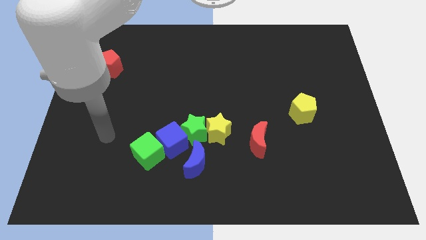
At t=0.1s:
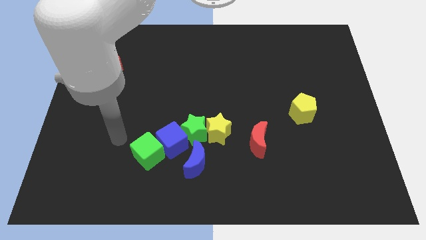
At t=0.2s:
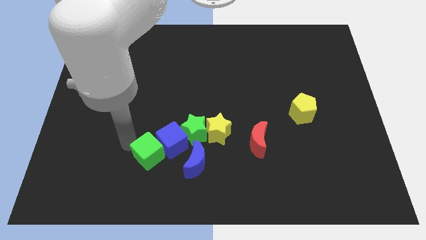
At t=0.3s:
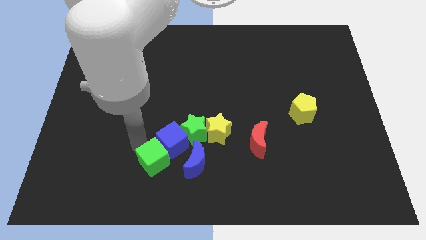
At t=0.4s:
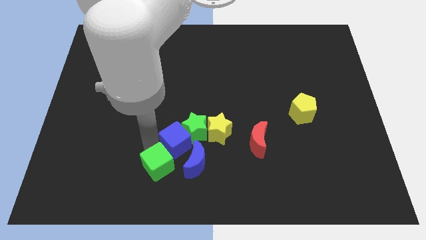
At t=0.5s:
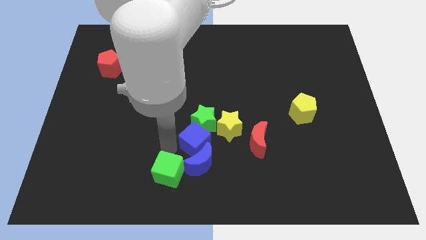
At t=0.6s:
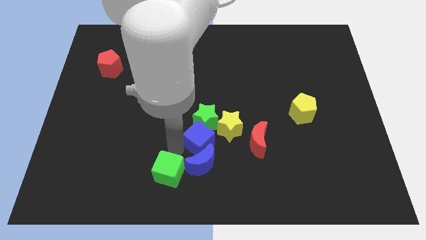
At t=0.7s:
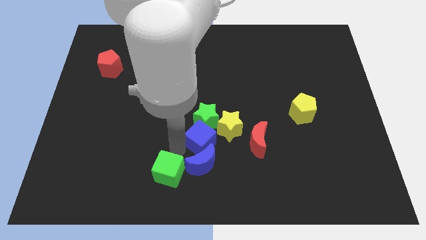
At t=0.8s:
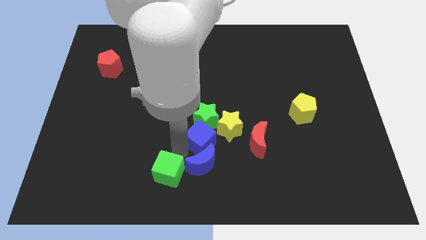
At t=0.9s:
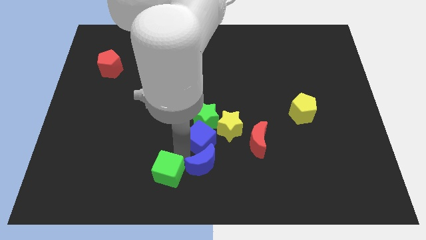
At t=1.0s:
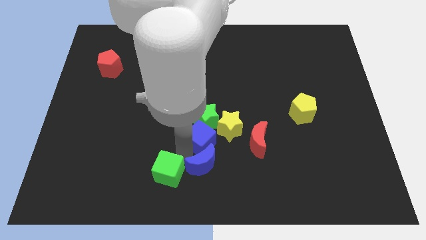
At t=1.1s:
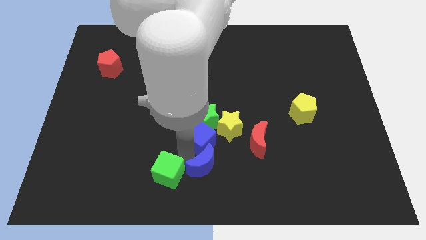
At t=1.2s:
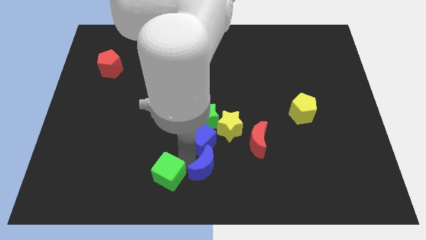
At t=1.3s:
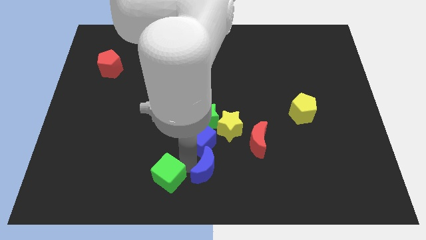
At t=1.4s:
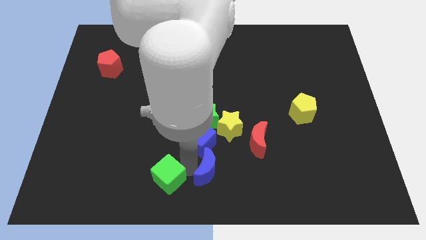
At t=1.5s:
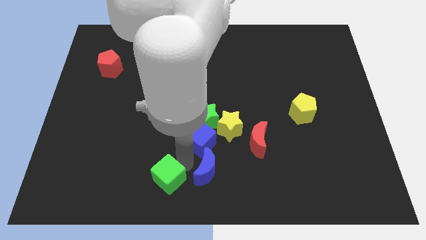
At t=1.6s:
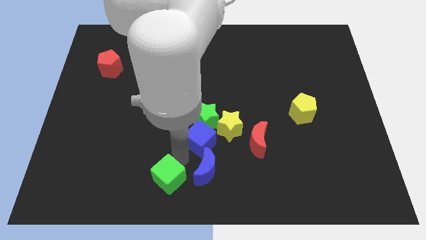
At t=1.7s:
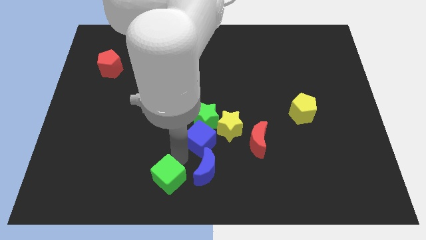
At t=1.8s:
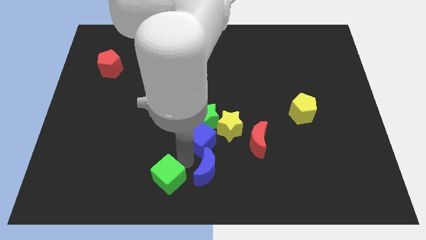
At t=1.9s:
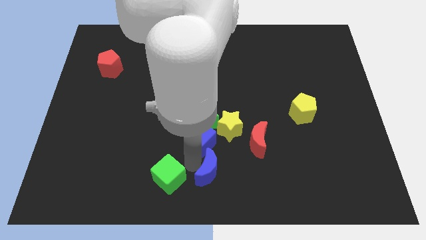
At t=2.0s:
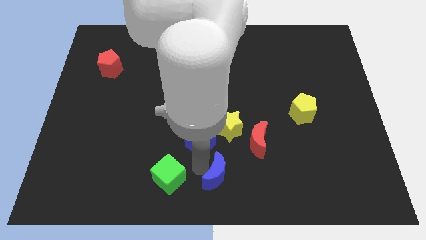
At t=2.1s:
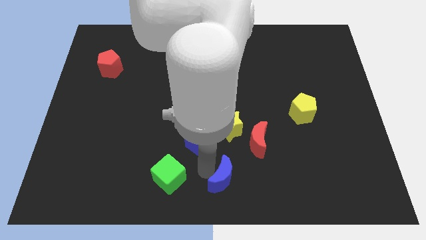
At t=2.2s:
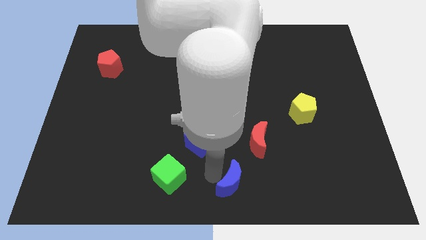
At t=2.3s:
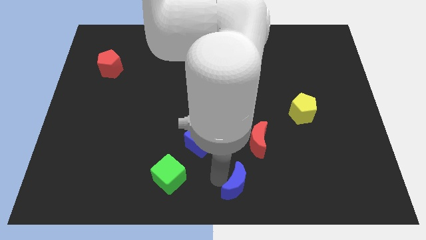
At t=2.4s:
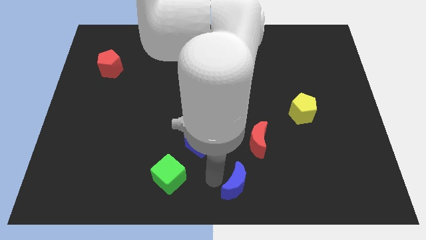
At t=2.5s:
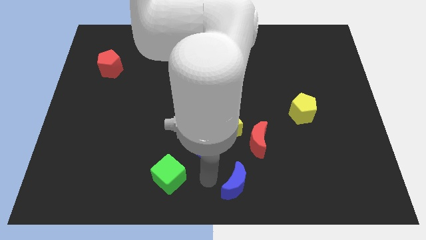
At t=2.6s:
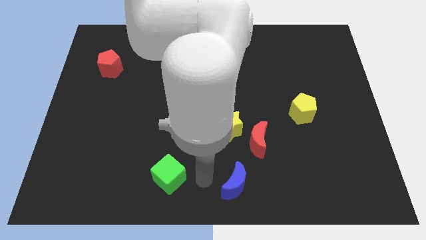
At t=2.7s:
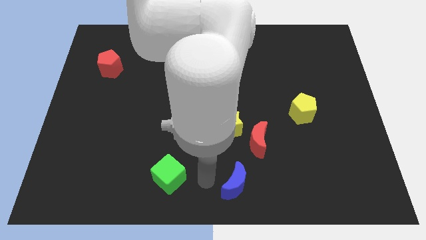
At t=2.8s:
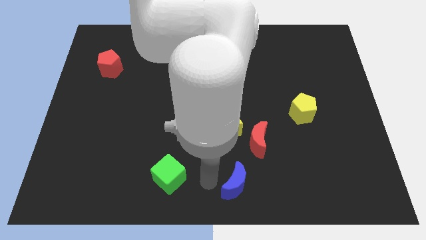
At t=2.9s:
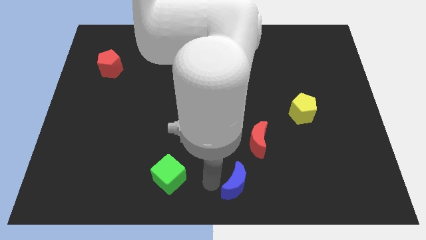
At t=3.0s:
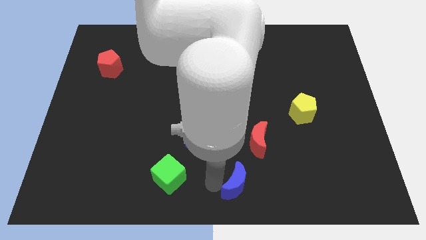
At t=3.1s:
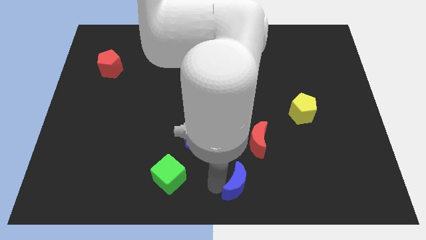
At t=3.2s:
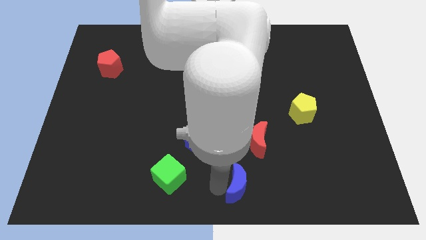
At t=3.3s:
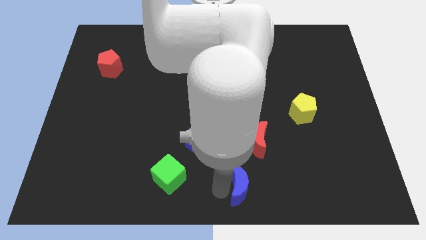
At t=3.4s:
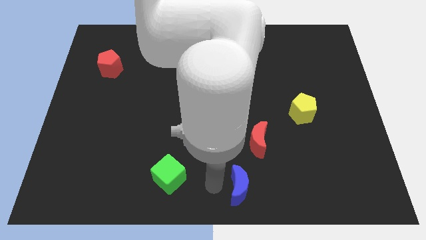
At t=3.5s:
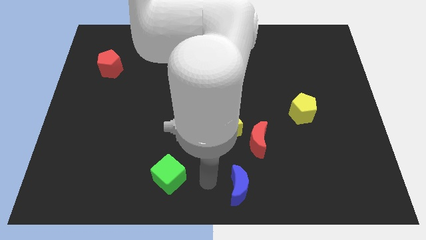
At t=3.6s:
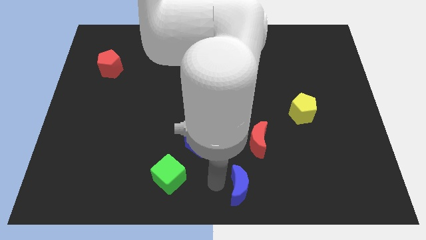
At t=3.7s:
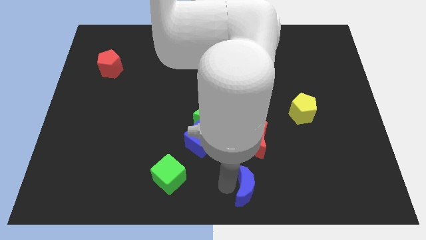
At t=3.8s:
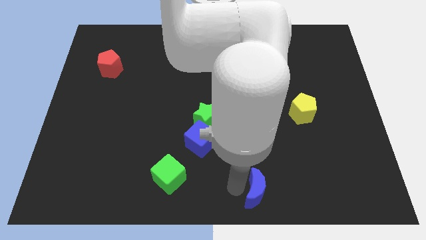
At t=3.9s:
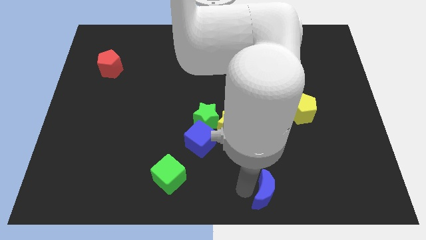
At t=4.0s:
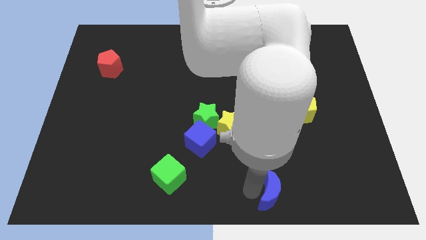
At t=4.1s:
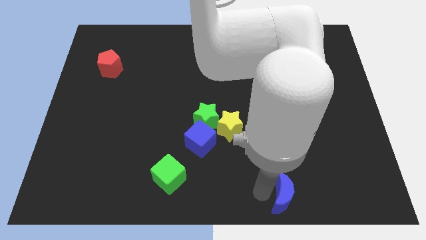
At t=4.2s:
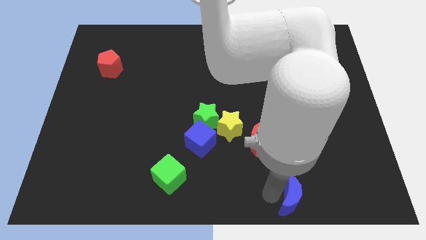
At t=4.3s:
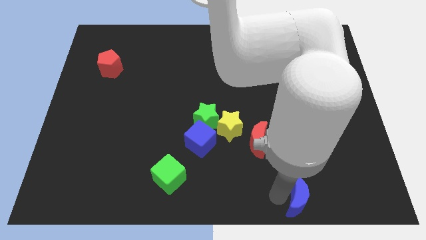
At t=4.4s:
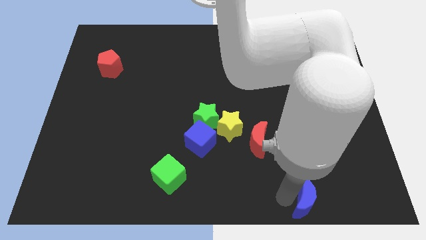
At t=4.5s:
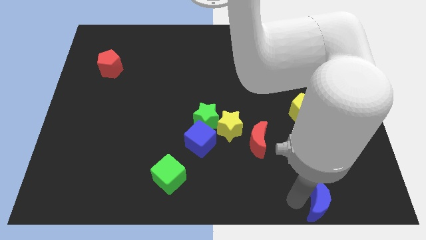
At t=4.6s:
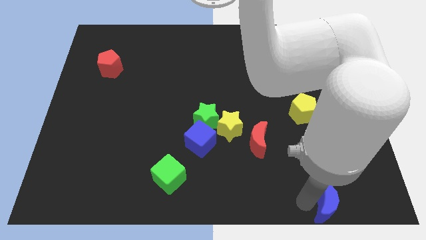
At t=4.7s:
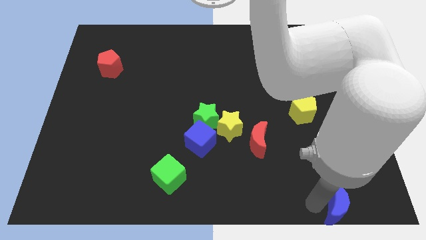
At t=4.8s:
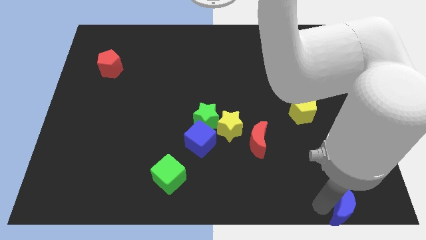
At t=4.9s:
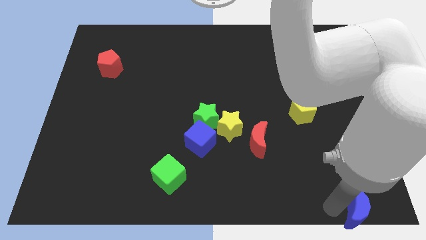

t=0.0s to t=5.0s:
move the blue moon to the bottom right corner

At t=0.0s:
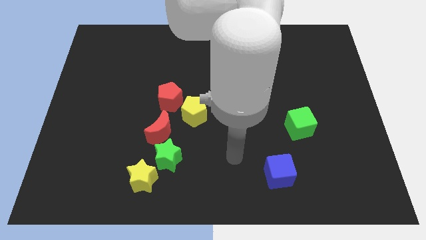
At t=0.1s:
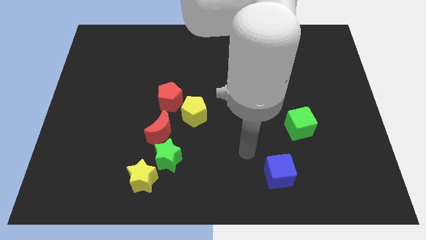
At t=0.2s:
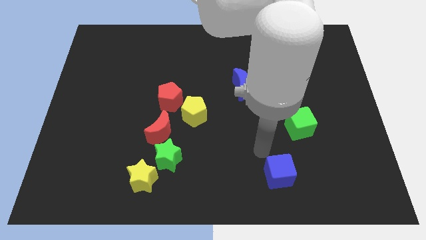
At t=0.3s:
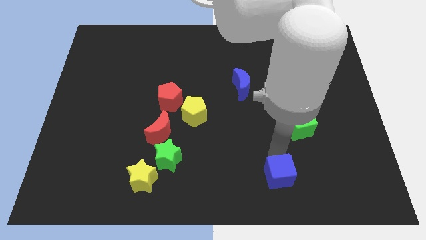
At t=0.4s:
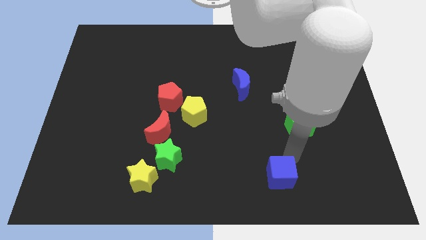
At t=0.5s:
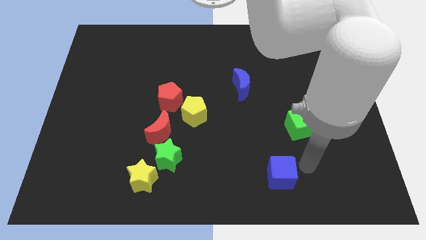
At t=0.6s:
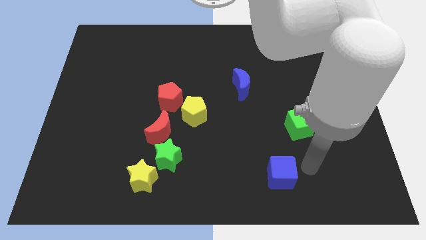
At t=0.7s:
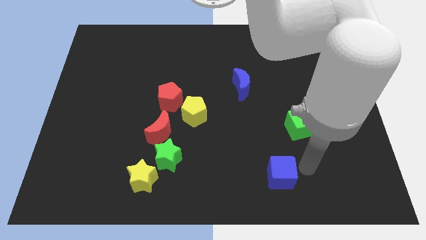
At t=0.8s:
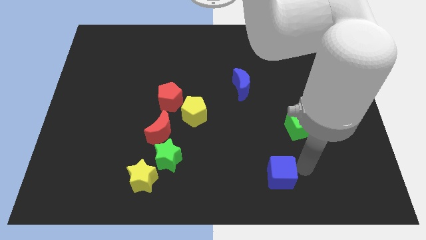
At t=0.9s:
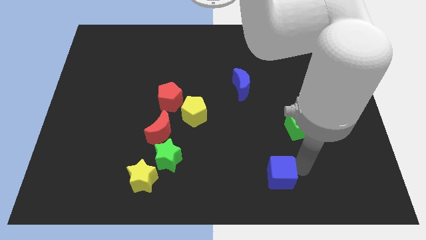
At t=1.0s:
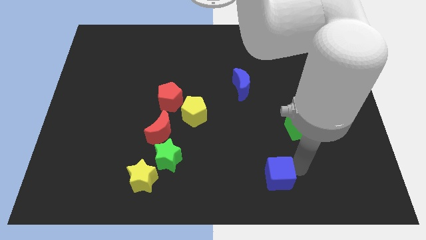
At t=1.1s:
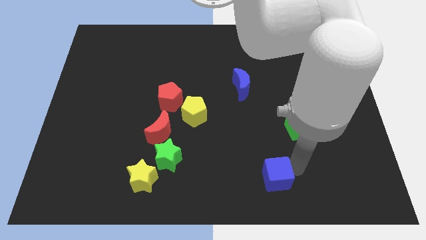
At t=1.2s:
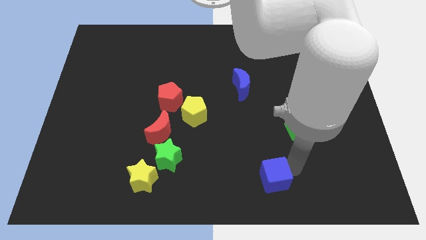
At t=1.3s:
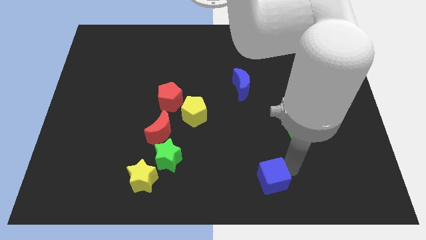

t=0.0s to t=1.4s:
put the blue cube to the bottom side

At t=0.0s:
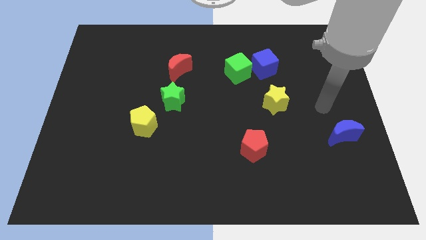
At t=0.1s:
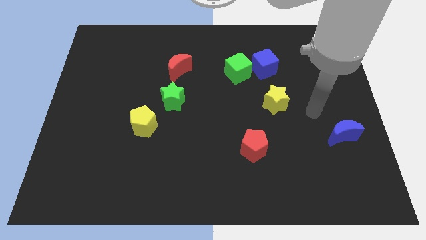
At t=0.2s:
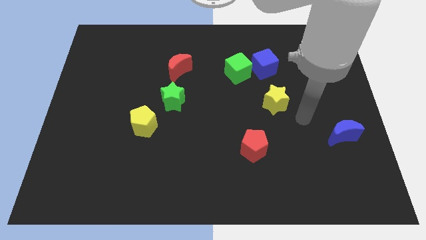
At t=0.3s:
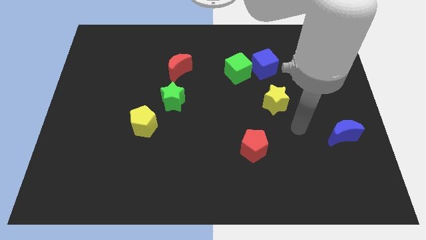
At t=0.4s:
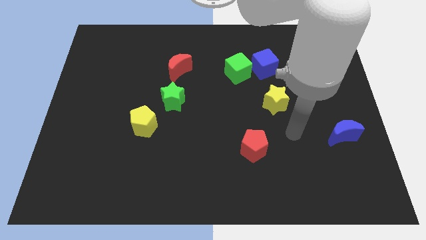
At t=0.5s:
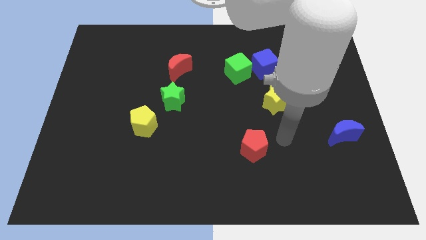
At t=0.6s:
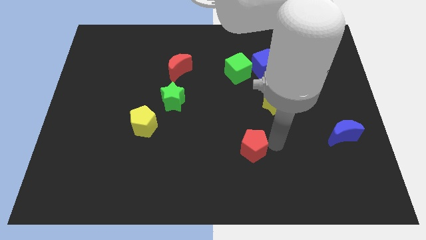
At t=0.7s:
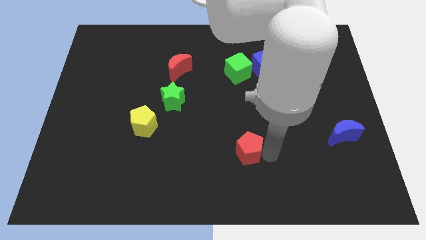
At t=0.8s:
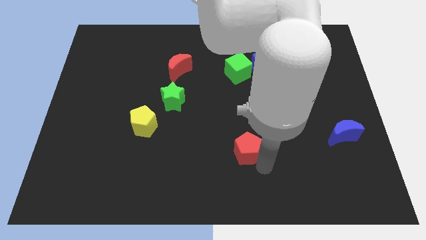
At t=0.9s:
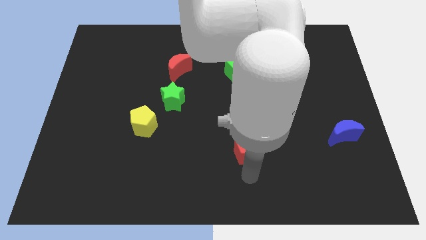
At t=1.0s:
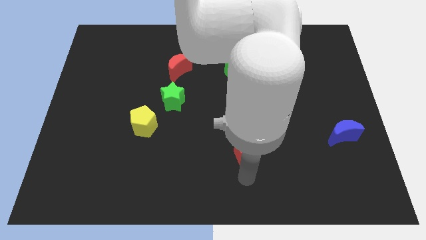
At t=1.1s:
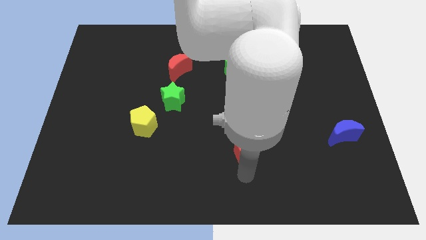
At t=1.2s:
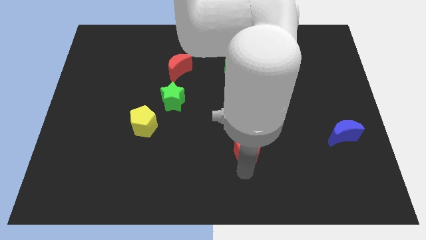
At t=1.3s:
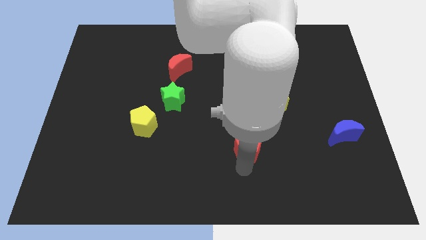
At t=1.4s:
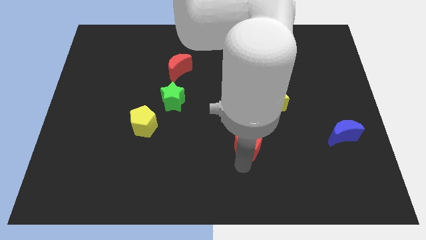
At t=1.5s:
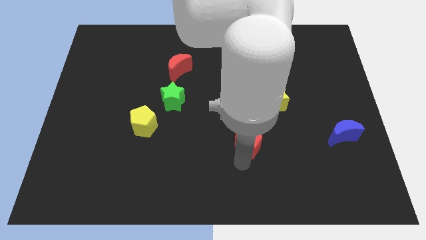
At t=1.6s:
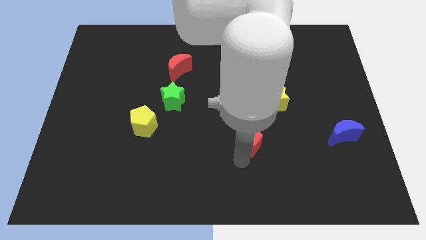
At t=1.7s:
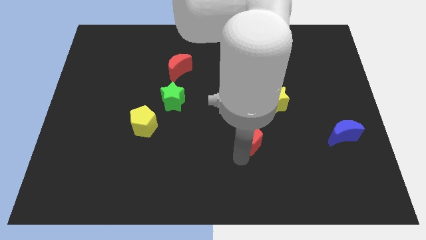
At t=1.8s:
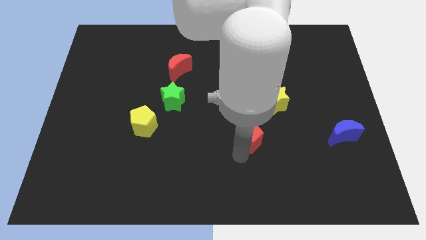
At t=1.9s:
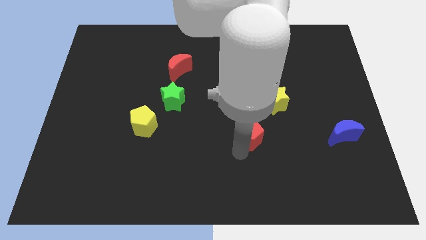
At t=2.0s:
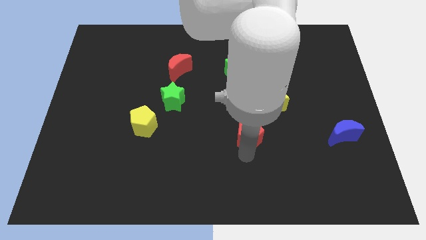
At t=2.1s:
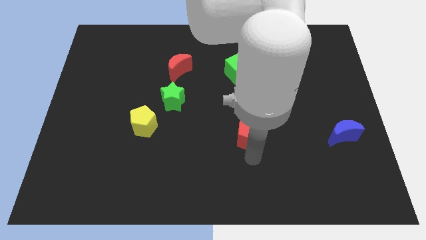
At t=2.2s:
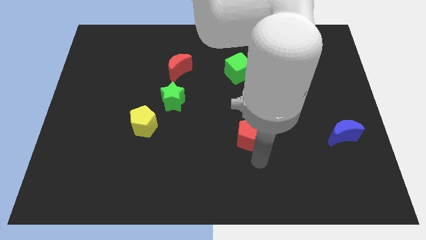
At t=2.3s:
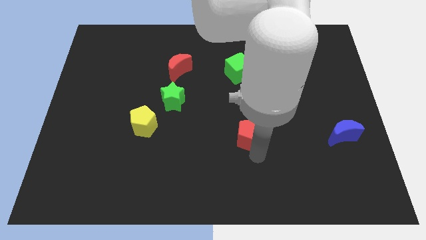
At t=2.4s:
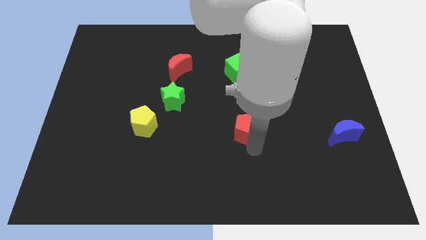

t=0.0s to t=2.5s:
move the red pentagon to the center
